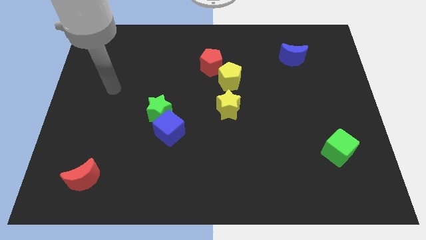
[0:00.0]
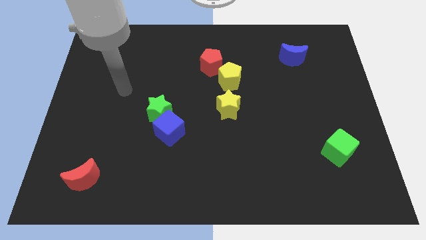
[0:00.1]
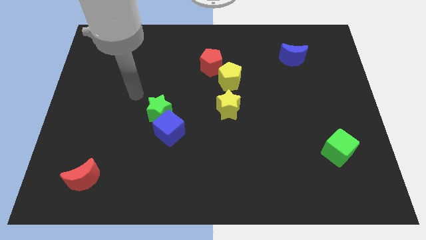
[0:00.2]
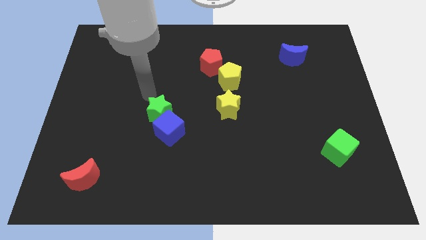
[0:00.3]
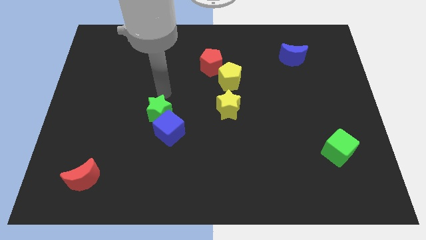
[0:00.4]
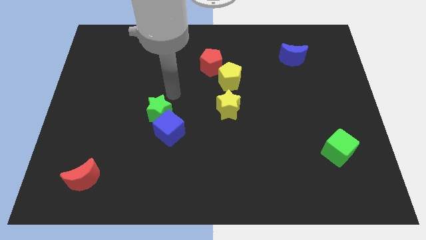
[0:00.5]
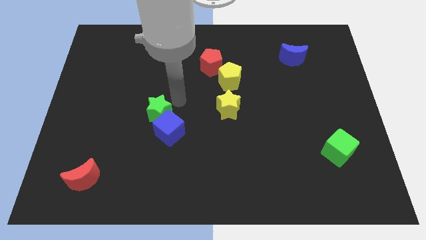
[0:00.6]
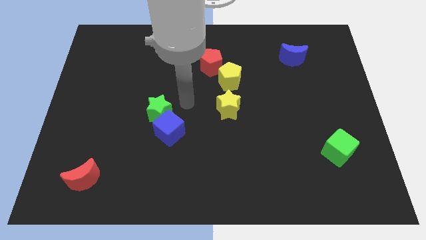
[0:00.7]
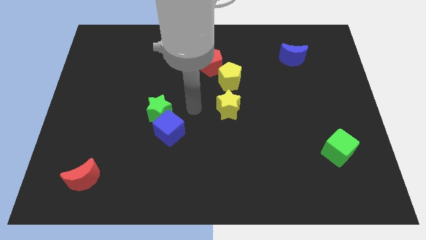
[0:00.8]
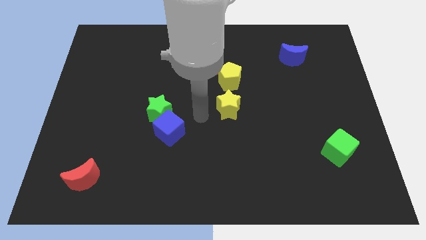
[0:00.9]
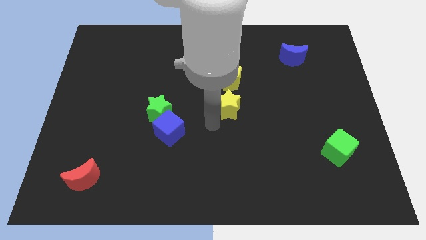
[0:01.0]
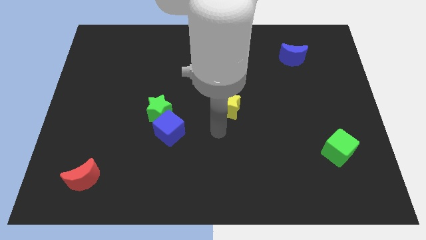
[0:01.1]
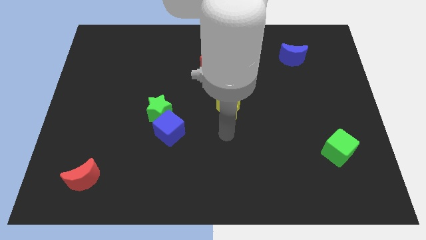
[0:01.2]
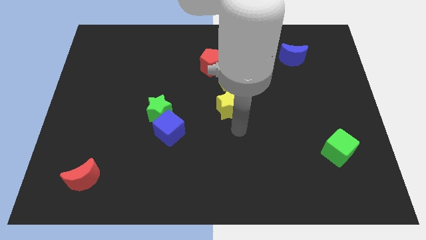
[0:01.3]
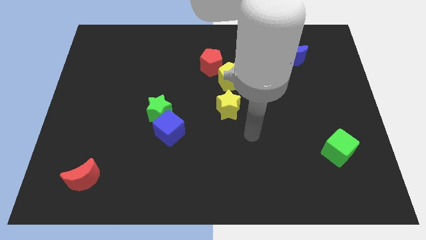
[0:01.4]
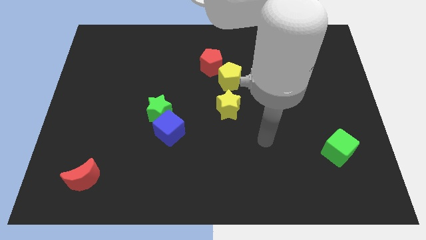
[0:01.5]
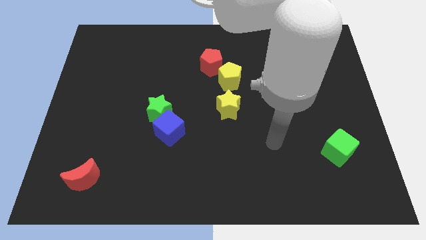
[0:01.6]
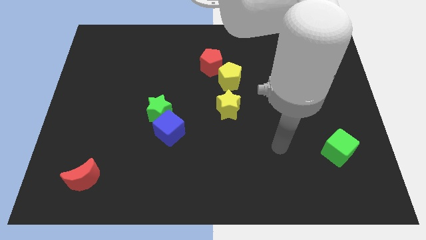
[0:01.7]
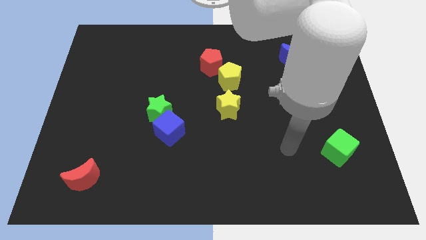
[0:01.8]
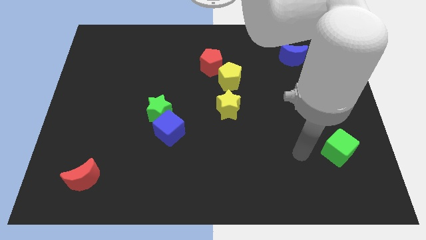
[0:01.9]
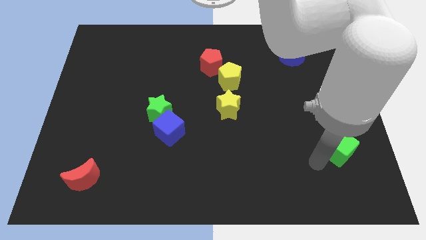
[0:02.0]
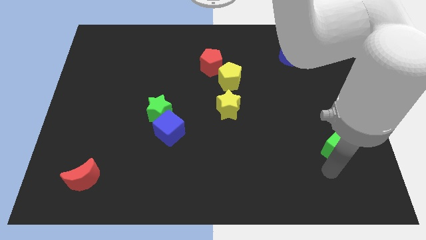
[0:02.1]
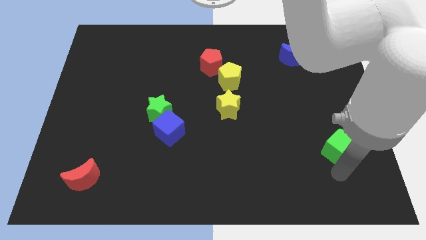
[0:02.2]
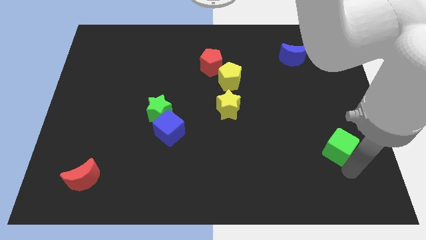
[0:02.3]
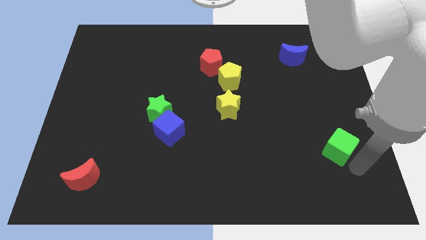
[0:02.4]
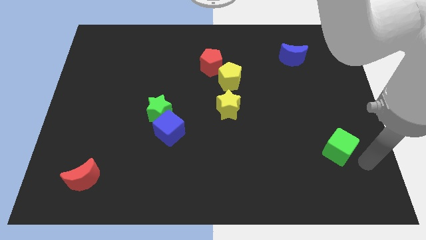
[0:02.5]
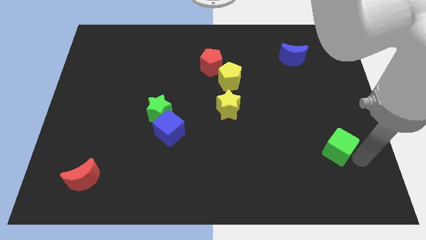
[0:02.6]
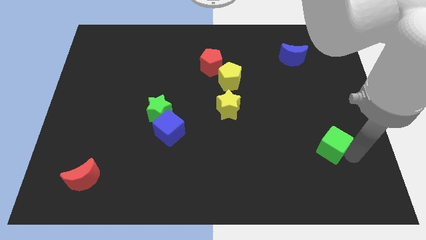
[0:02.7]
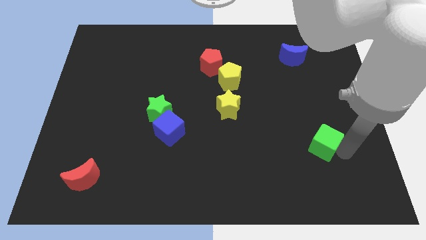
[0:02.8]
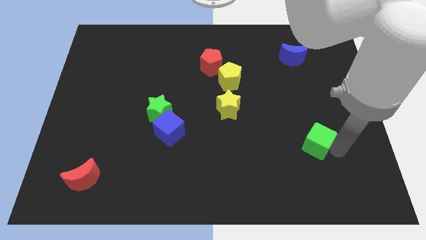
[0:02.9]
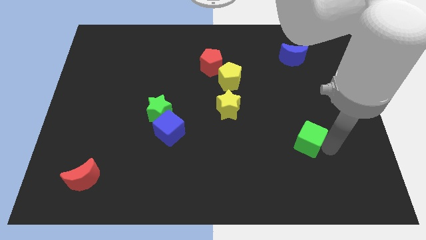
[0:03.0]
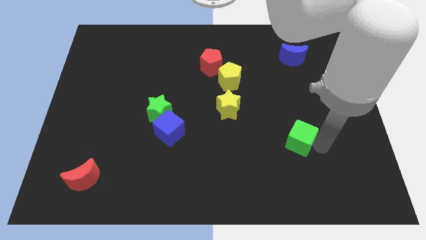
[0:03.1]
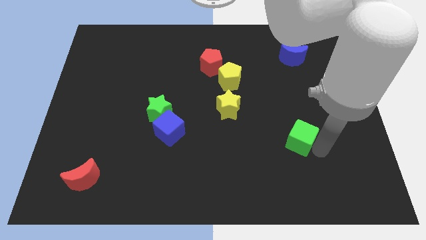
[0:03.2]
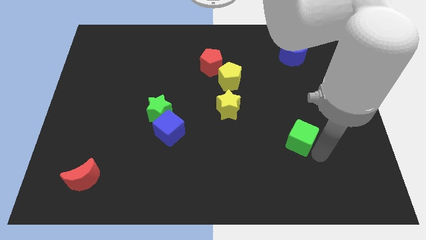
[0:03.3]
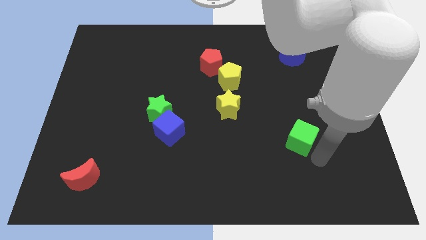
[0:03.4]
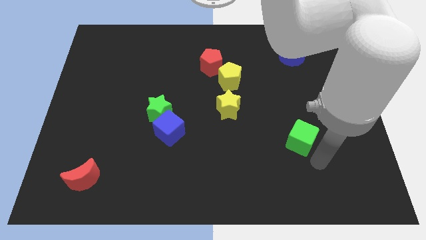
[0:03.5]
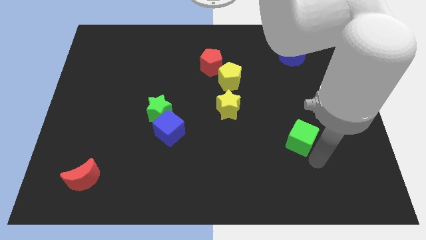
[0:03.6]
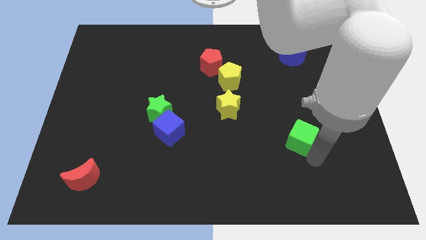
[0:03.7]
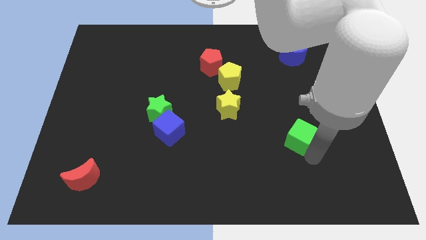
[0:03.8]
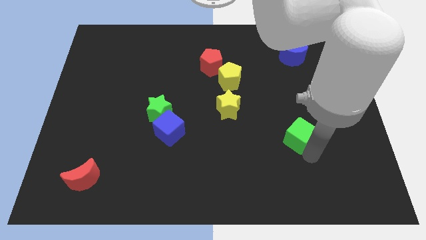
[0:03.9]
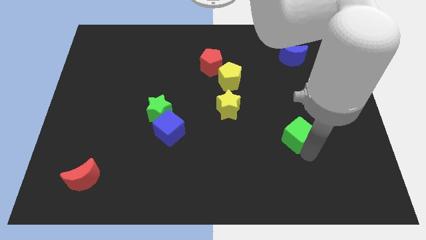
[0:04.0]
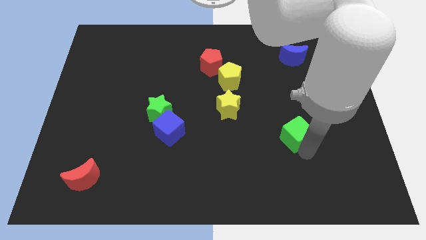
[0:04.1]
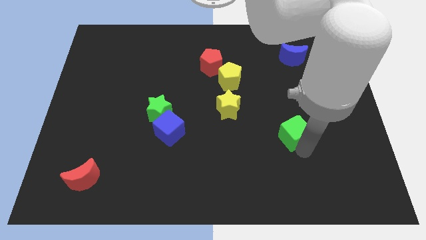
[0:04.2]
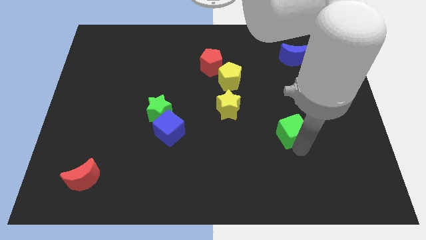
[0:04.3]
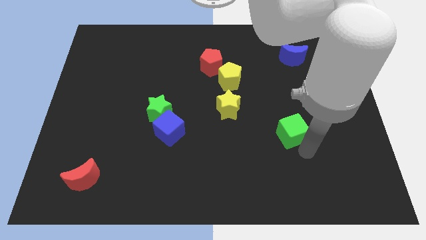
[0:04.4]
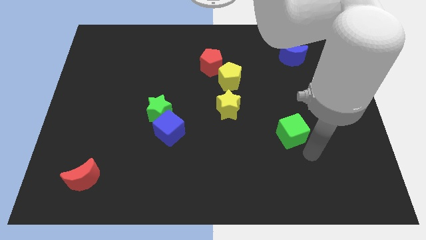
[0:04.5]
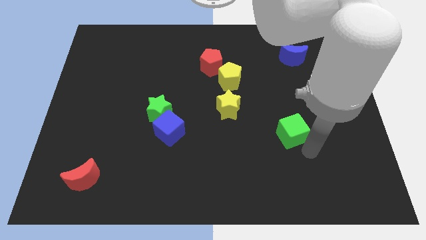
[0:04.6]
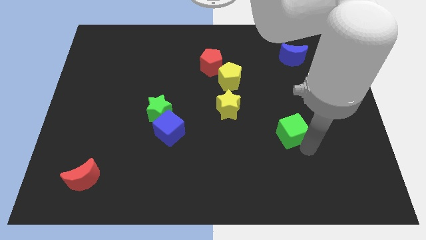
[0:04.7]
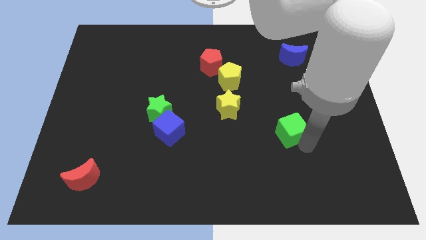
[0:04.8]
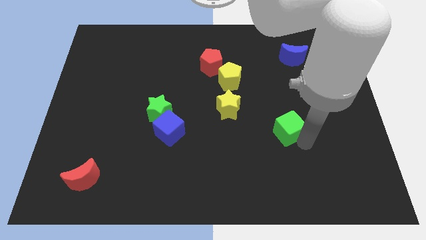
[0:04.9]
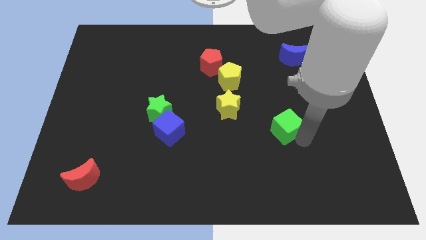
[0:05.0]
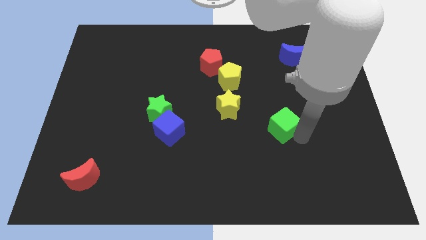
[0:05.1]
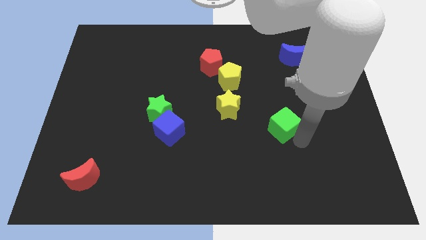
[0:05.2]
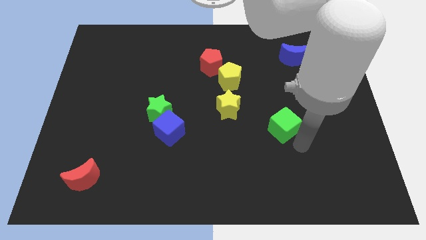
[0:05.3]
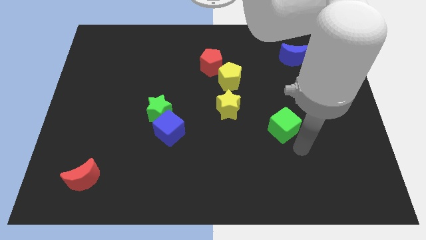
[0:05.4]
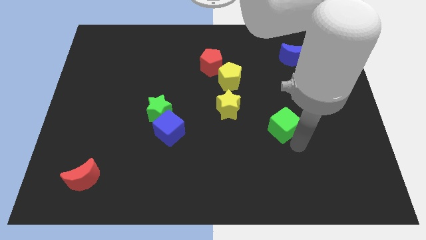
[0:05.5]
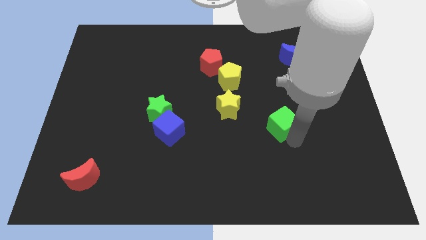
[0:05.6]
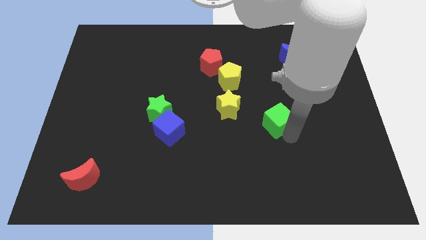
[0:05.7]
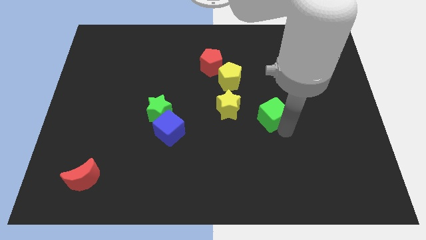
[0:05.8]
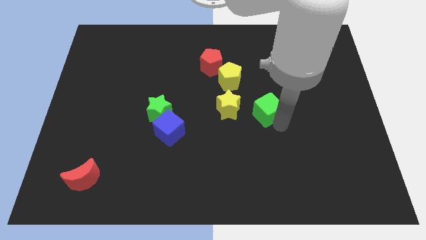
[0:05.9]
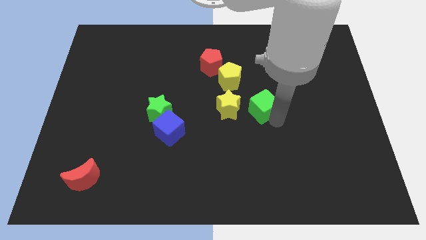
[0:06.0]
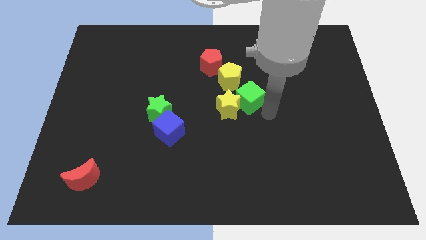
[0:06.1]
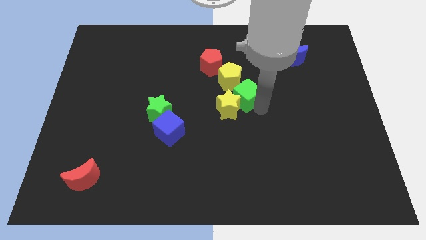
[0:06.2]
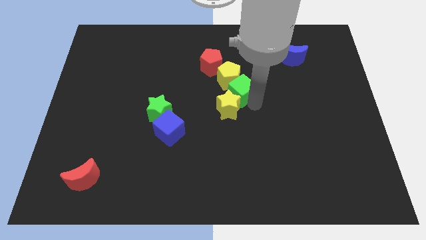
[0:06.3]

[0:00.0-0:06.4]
push the green cube to the yellow pentagon

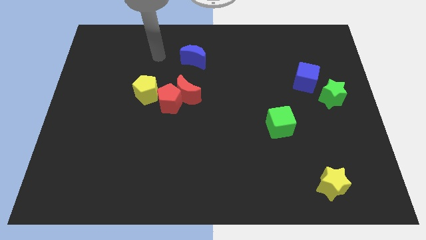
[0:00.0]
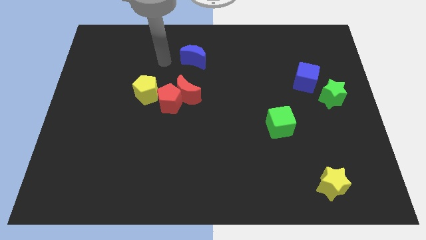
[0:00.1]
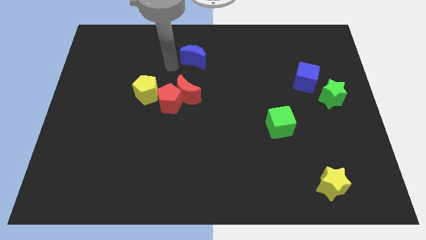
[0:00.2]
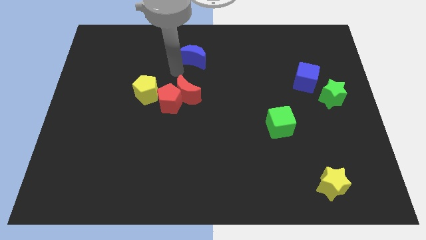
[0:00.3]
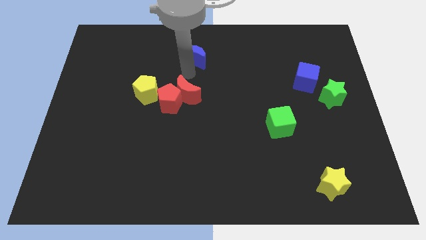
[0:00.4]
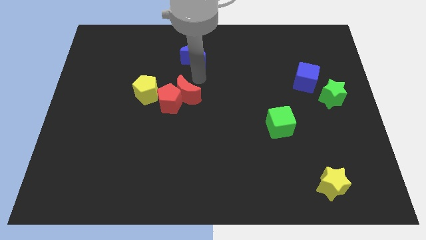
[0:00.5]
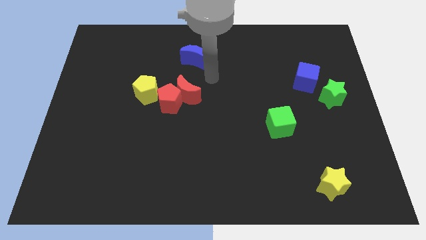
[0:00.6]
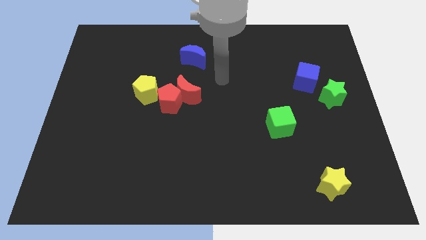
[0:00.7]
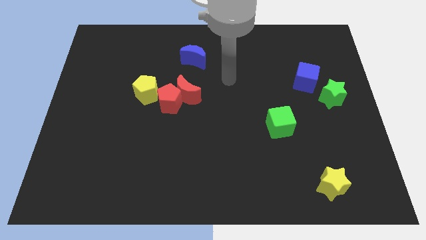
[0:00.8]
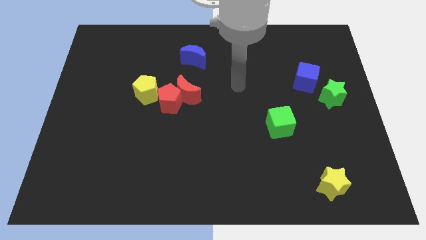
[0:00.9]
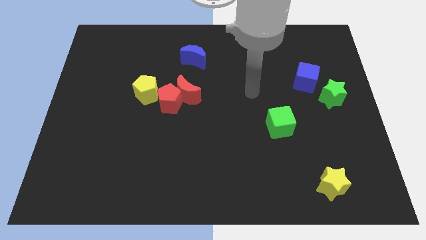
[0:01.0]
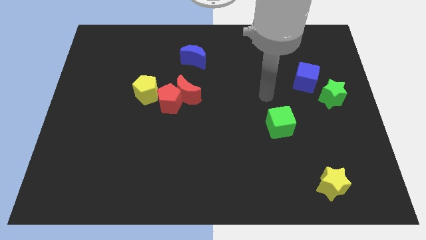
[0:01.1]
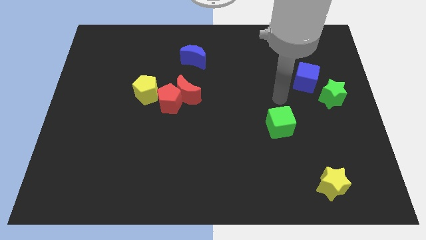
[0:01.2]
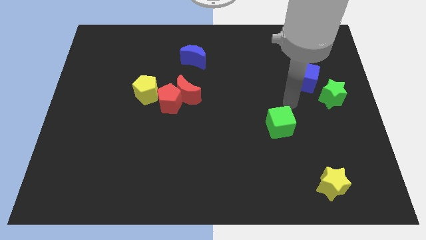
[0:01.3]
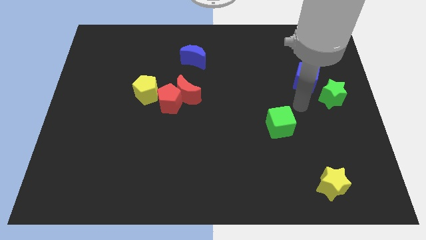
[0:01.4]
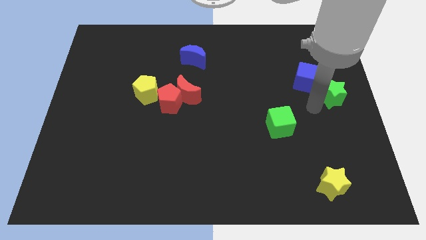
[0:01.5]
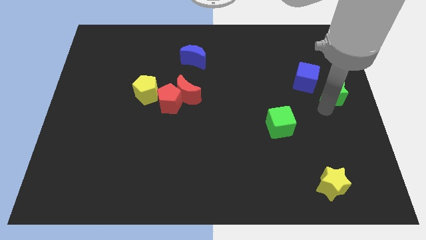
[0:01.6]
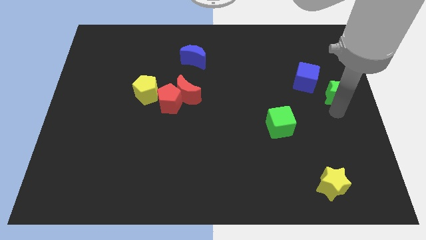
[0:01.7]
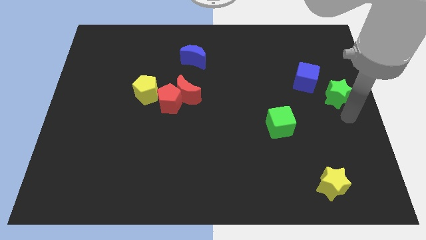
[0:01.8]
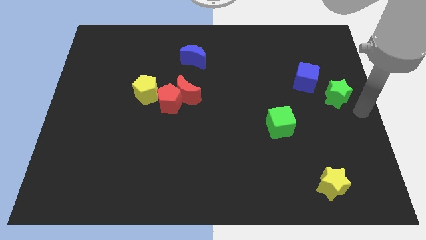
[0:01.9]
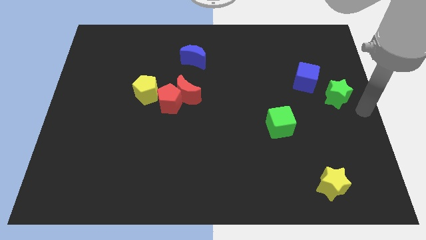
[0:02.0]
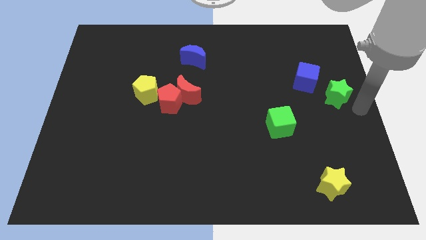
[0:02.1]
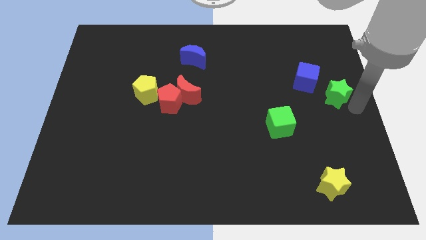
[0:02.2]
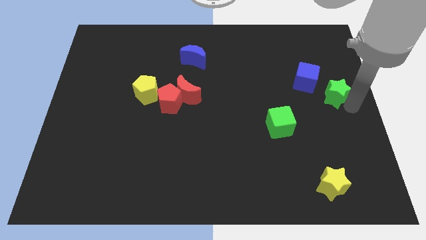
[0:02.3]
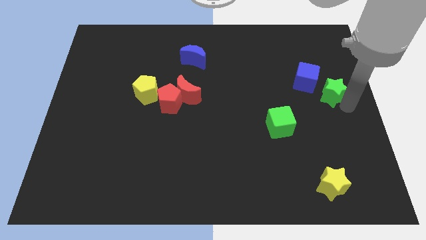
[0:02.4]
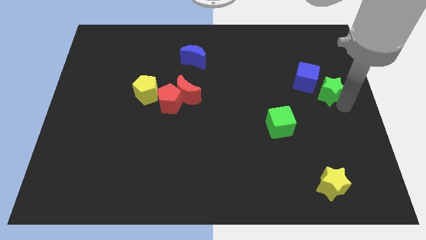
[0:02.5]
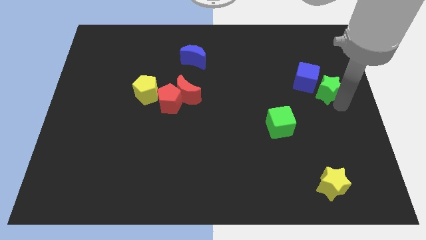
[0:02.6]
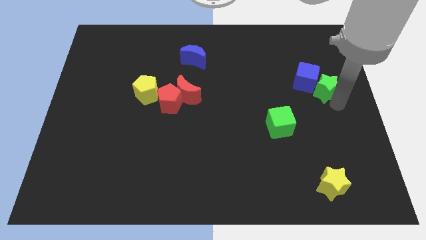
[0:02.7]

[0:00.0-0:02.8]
move the green star towards the blue cube
